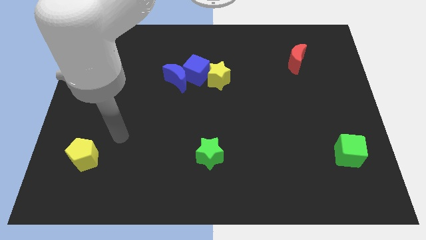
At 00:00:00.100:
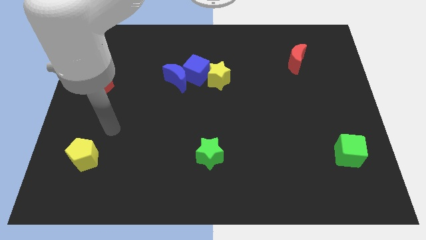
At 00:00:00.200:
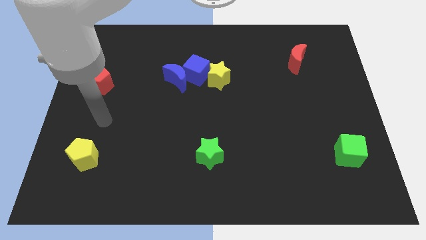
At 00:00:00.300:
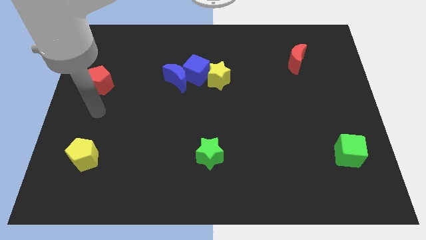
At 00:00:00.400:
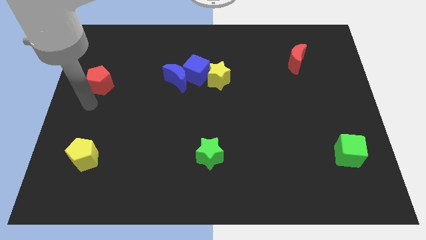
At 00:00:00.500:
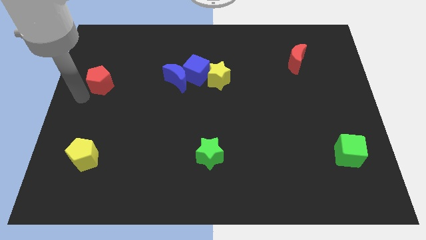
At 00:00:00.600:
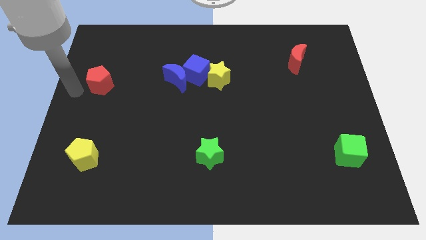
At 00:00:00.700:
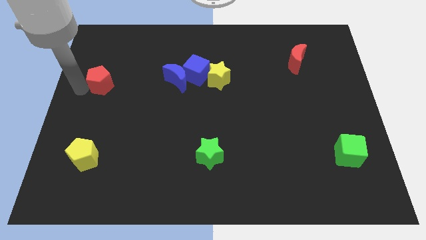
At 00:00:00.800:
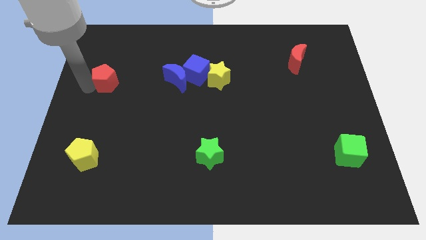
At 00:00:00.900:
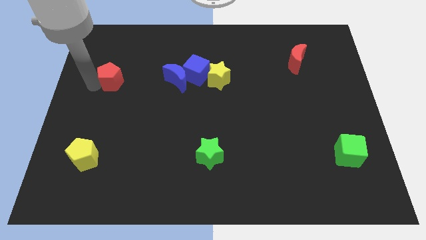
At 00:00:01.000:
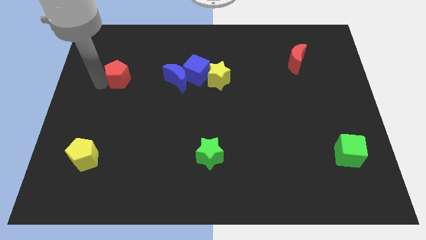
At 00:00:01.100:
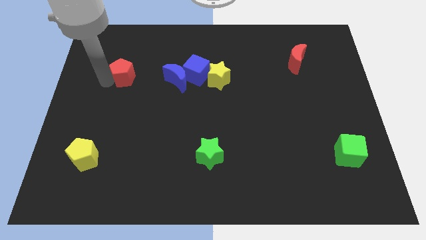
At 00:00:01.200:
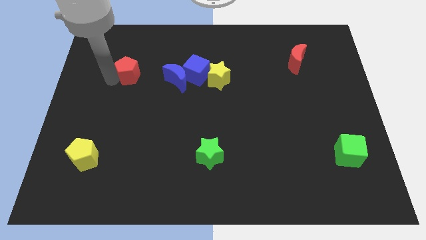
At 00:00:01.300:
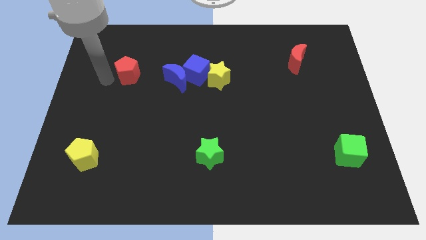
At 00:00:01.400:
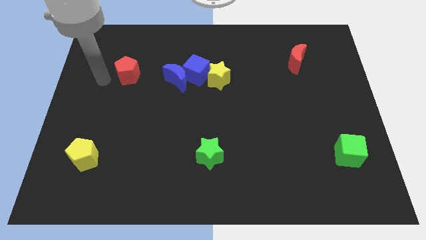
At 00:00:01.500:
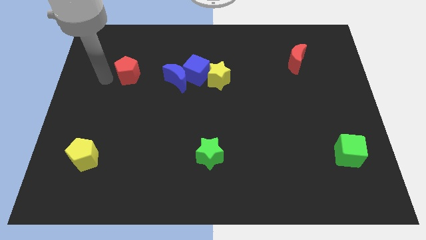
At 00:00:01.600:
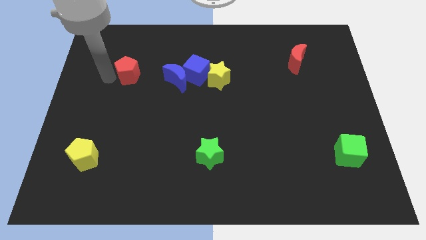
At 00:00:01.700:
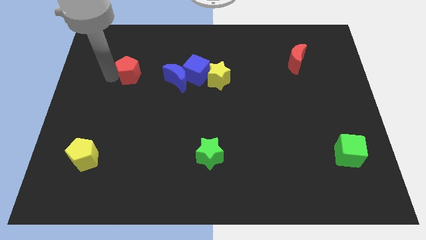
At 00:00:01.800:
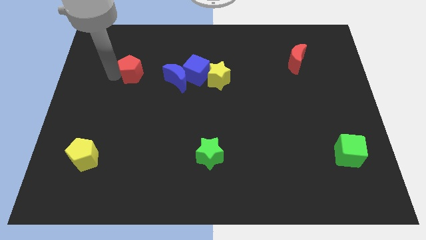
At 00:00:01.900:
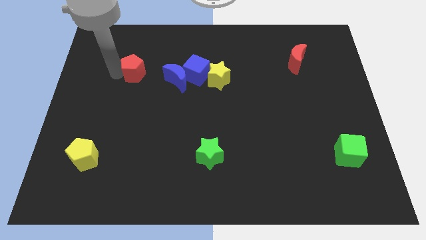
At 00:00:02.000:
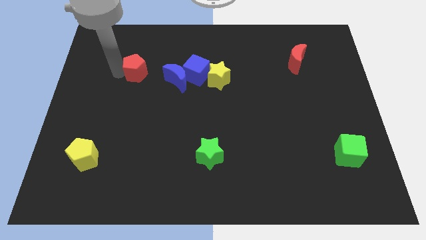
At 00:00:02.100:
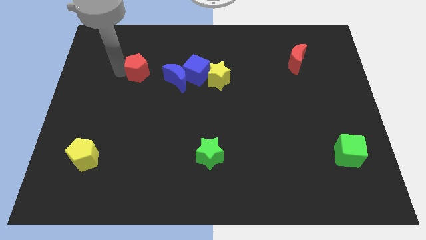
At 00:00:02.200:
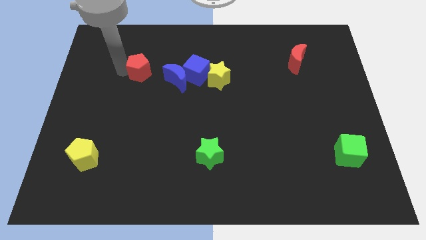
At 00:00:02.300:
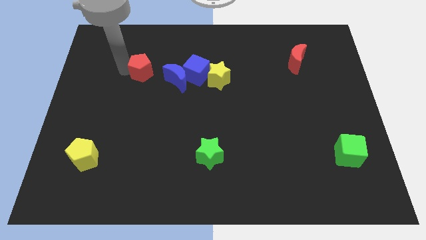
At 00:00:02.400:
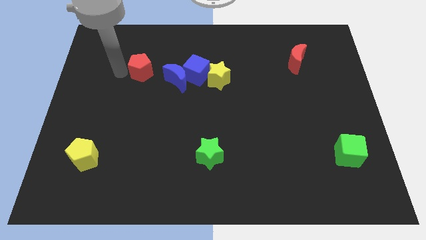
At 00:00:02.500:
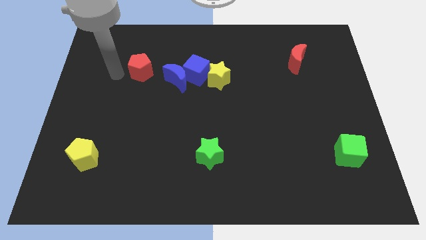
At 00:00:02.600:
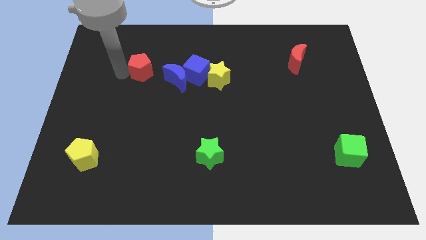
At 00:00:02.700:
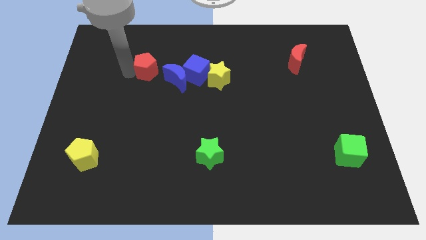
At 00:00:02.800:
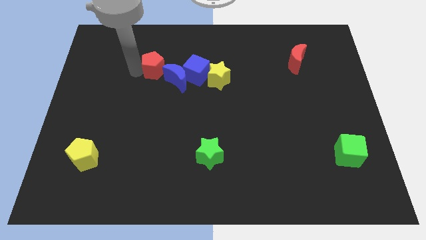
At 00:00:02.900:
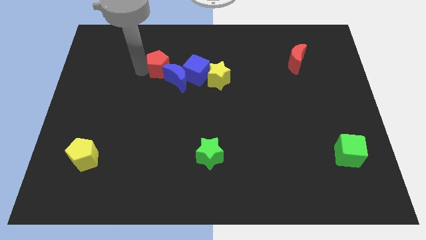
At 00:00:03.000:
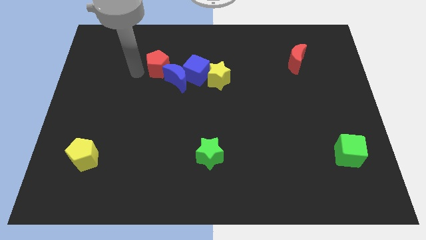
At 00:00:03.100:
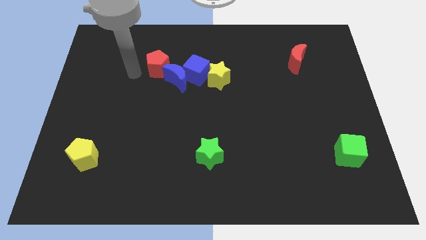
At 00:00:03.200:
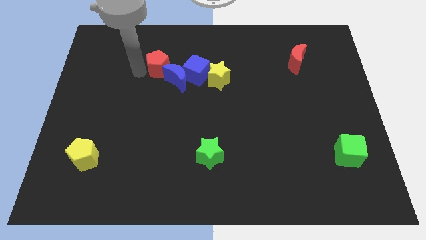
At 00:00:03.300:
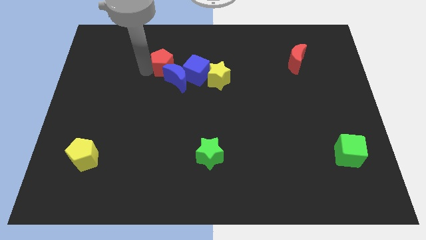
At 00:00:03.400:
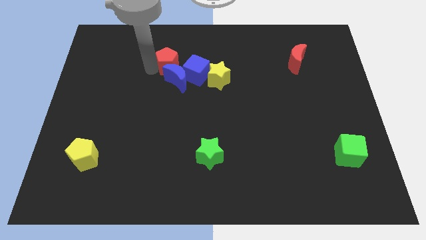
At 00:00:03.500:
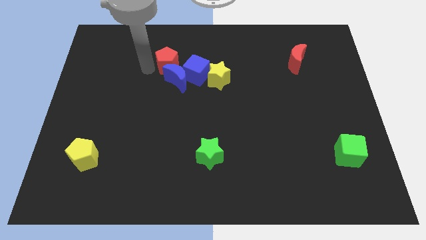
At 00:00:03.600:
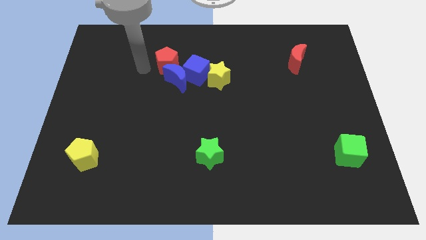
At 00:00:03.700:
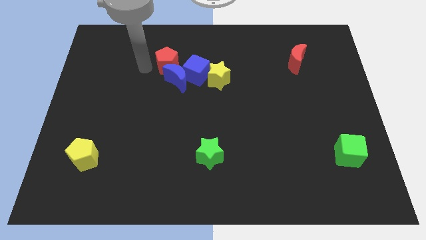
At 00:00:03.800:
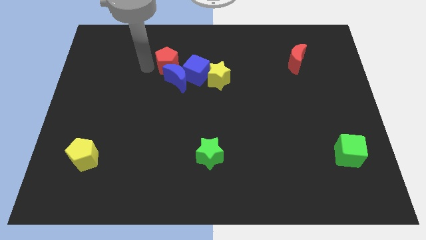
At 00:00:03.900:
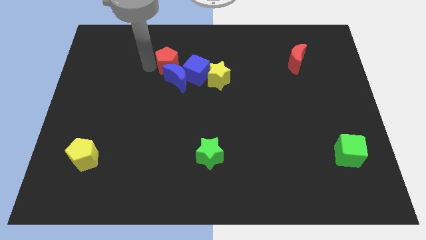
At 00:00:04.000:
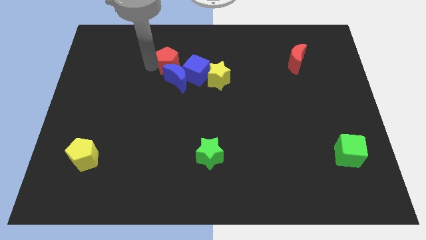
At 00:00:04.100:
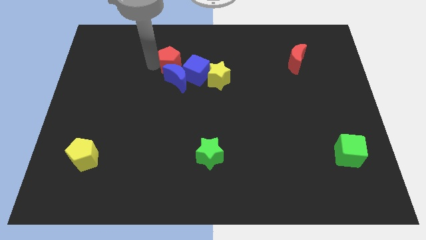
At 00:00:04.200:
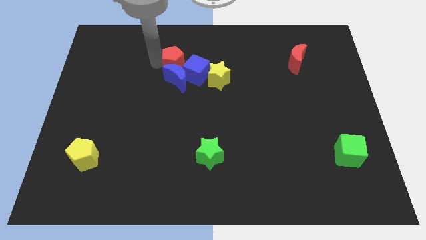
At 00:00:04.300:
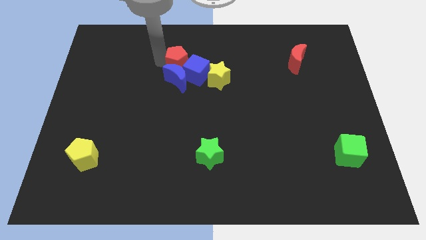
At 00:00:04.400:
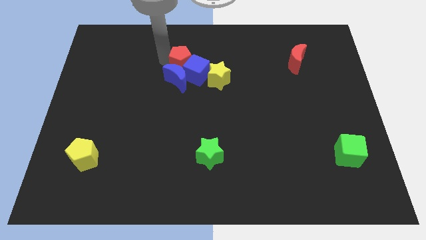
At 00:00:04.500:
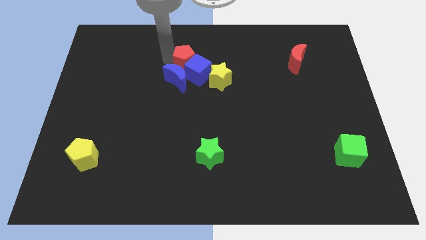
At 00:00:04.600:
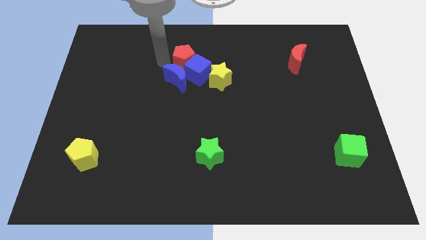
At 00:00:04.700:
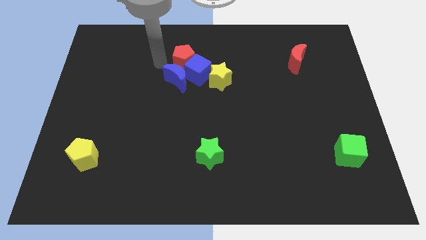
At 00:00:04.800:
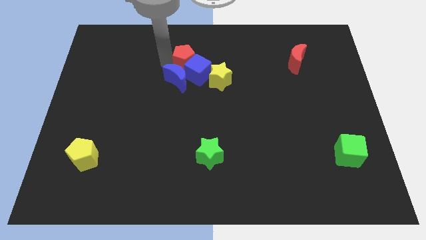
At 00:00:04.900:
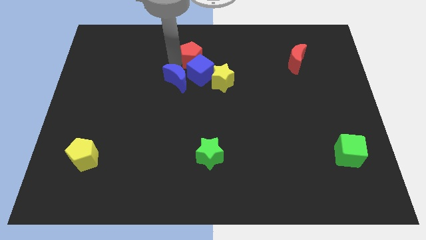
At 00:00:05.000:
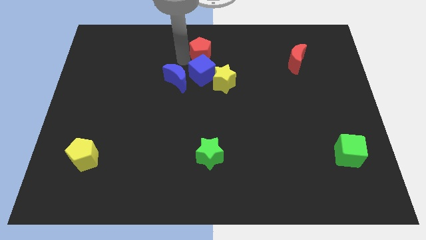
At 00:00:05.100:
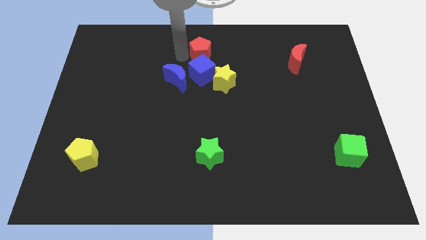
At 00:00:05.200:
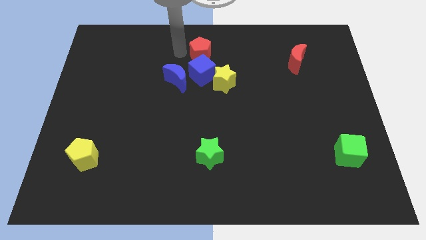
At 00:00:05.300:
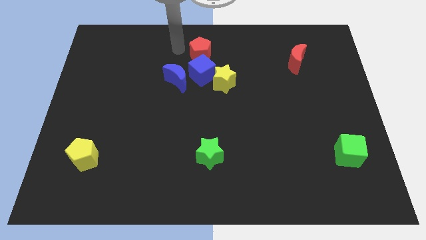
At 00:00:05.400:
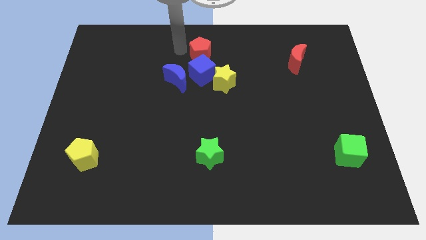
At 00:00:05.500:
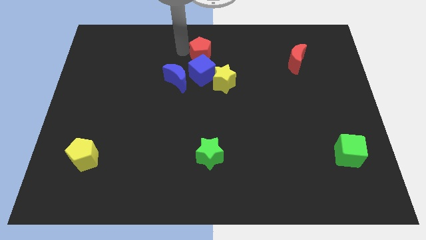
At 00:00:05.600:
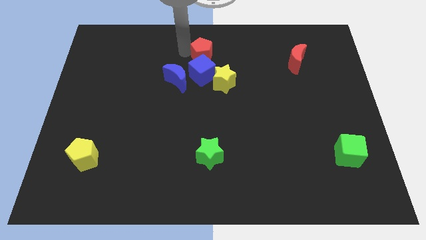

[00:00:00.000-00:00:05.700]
slide the red pentagon to the top right side of the blue cube

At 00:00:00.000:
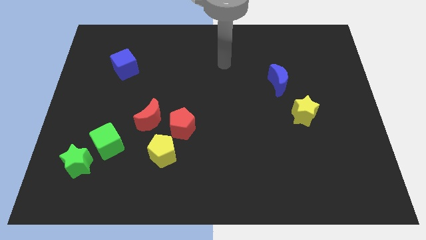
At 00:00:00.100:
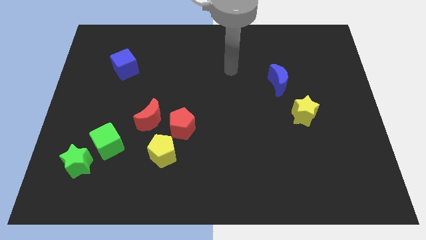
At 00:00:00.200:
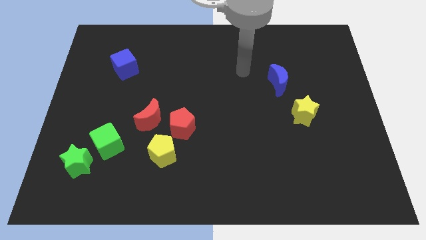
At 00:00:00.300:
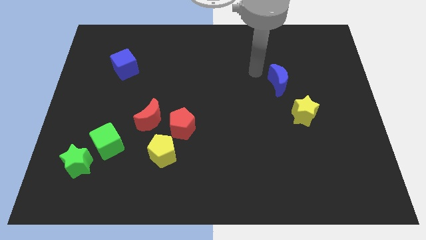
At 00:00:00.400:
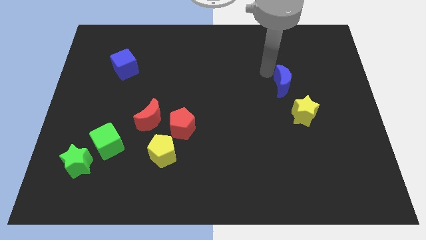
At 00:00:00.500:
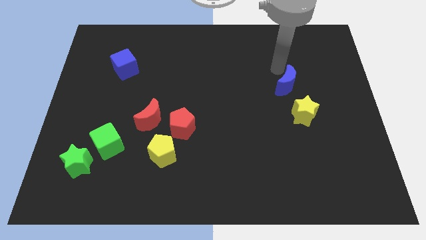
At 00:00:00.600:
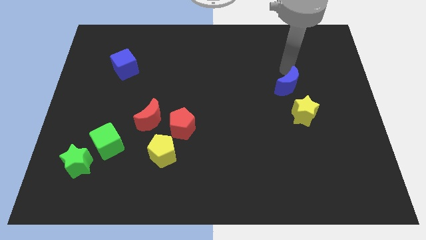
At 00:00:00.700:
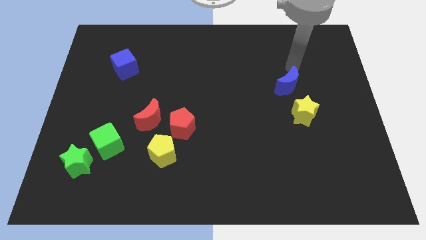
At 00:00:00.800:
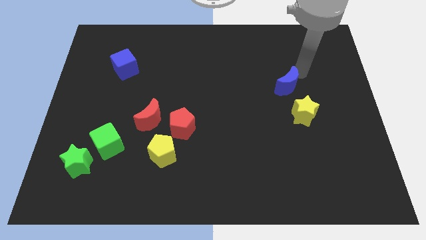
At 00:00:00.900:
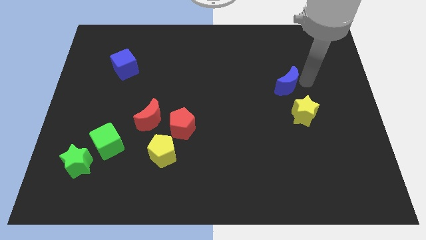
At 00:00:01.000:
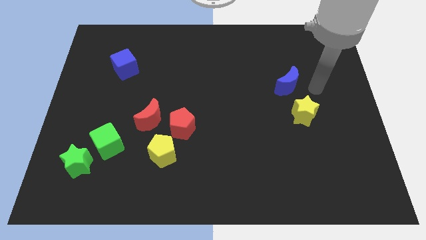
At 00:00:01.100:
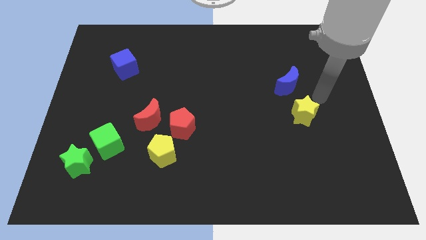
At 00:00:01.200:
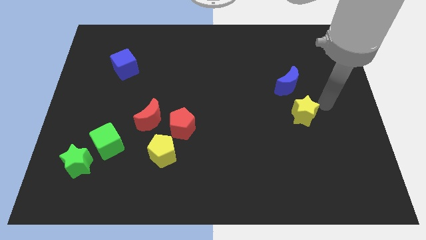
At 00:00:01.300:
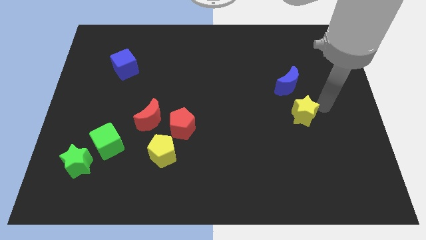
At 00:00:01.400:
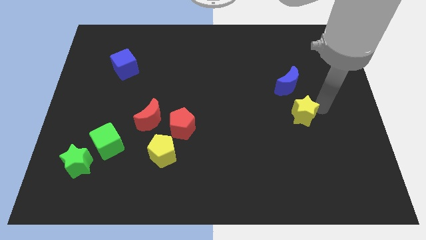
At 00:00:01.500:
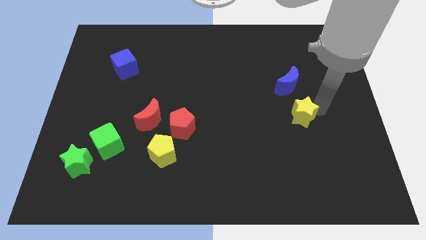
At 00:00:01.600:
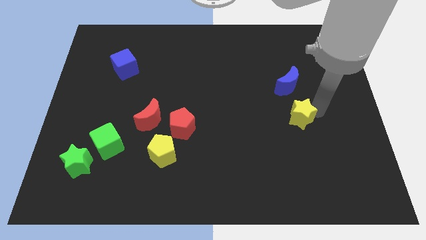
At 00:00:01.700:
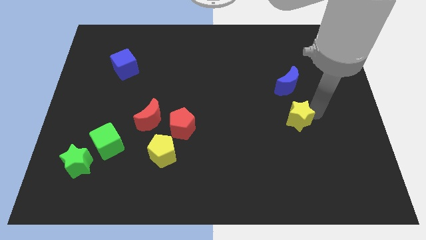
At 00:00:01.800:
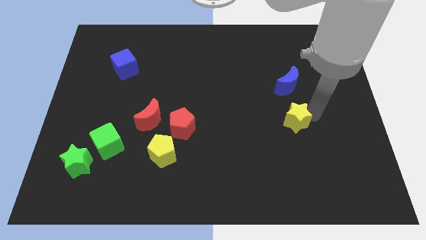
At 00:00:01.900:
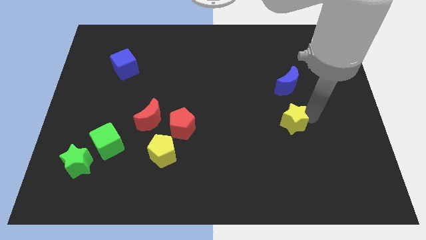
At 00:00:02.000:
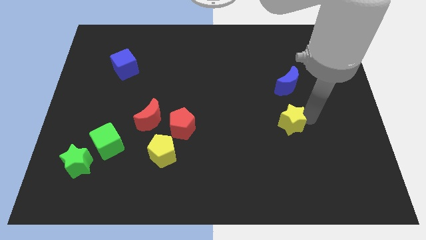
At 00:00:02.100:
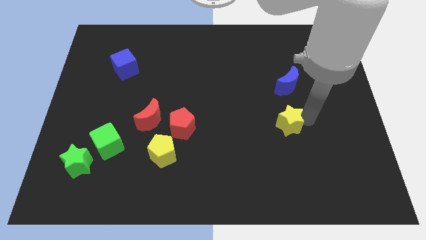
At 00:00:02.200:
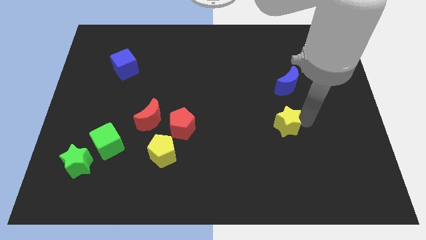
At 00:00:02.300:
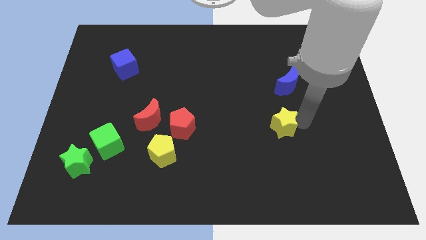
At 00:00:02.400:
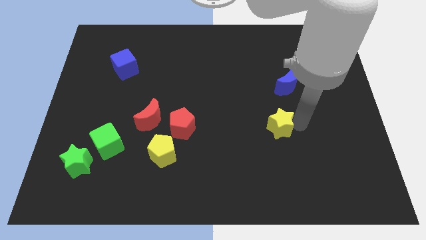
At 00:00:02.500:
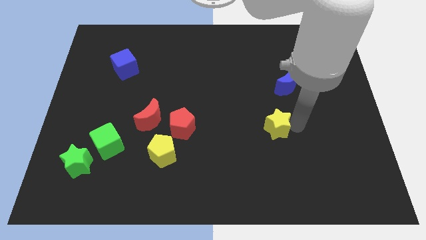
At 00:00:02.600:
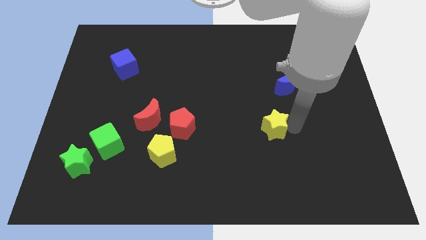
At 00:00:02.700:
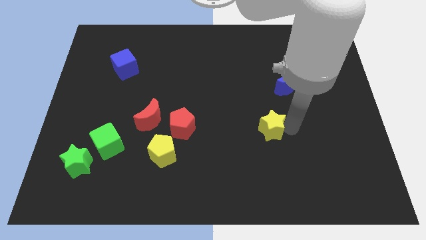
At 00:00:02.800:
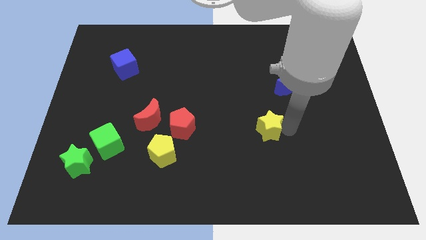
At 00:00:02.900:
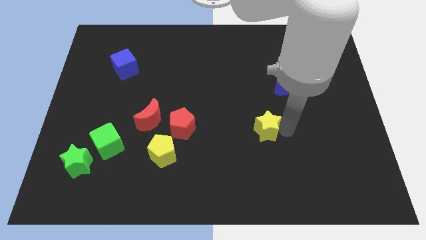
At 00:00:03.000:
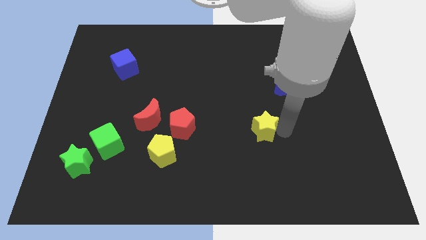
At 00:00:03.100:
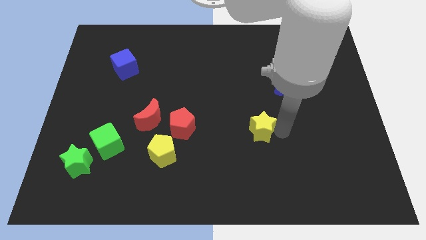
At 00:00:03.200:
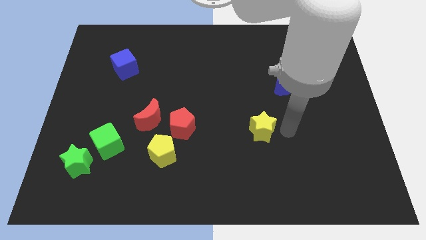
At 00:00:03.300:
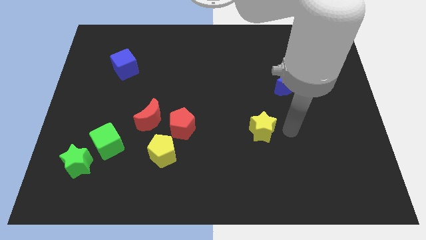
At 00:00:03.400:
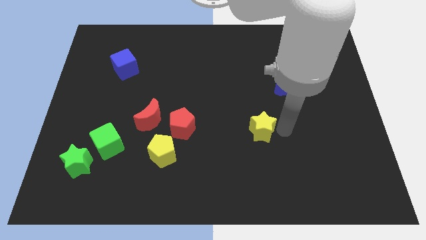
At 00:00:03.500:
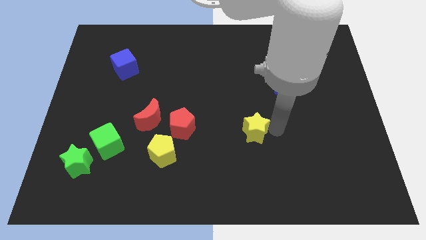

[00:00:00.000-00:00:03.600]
move the yellow star right of the red pentagon
